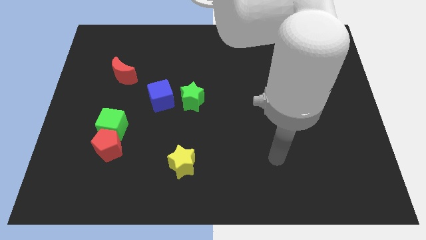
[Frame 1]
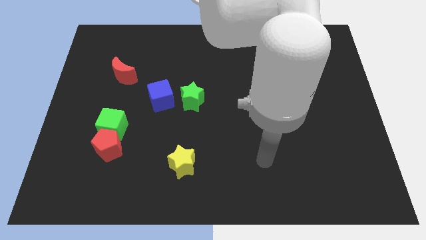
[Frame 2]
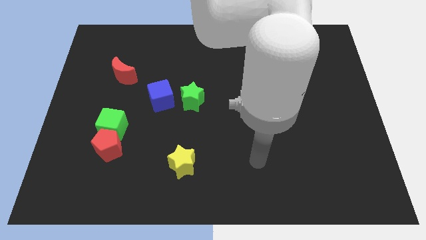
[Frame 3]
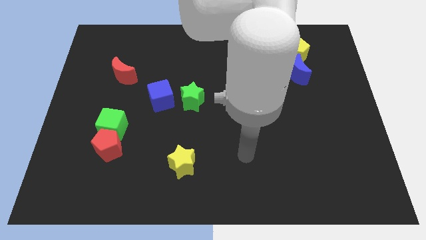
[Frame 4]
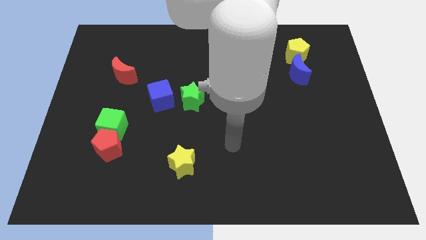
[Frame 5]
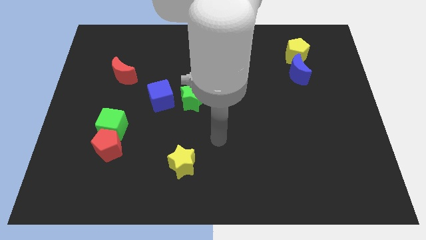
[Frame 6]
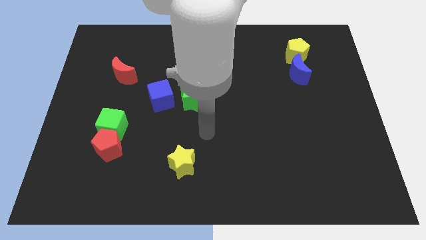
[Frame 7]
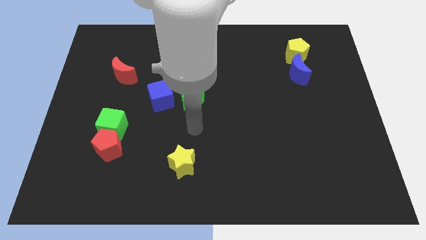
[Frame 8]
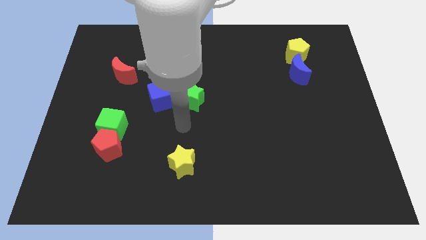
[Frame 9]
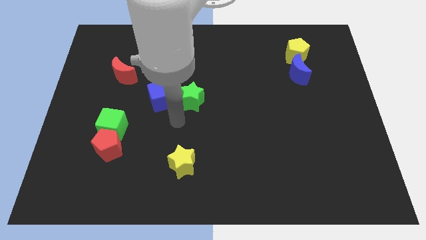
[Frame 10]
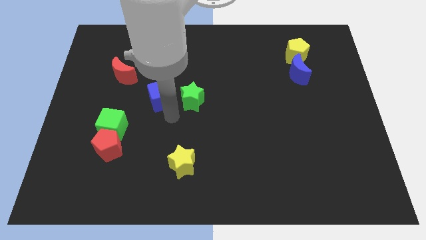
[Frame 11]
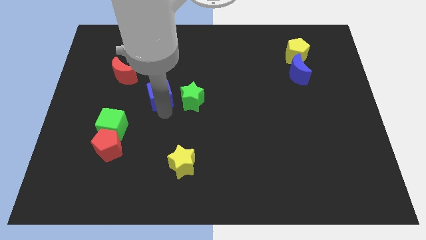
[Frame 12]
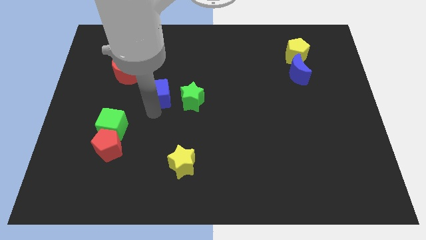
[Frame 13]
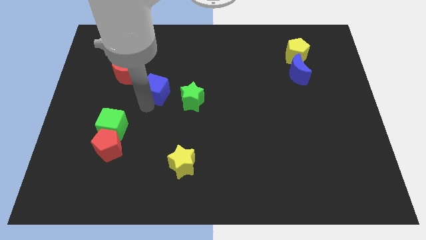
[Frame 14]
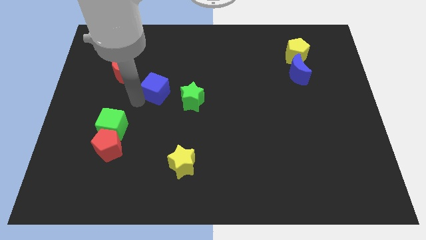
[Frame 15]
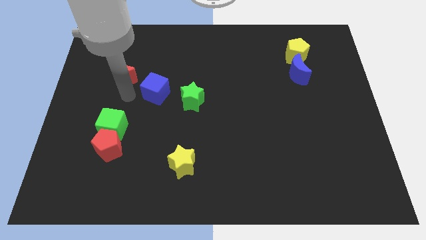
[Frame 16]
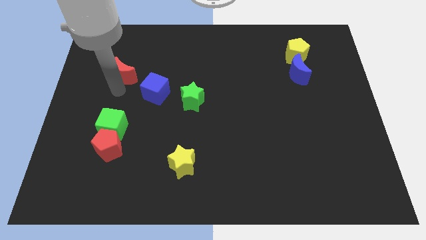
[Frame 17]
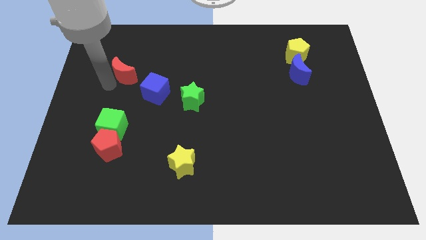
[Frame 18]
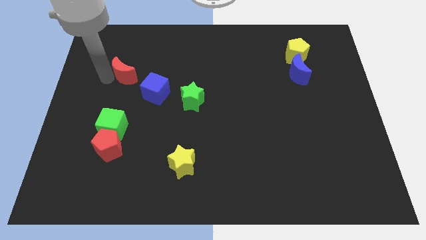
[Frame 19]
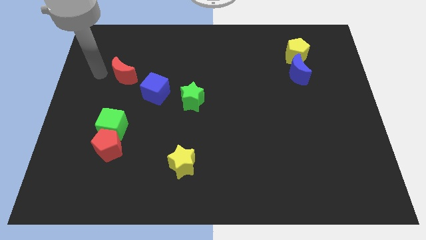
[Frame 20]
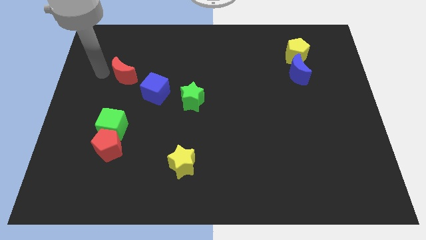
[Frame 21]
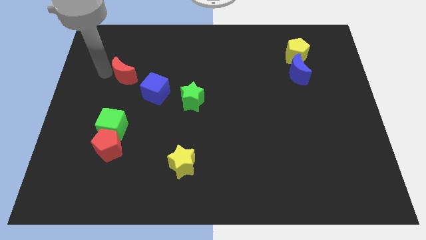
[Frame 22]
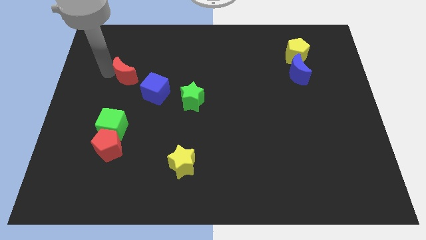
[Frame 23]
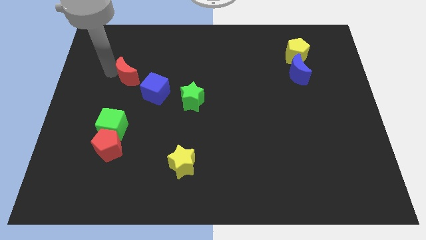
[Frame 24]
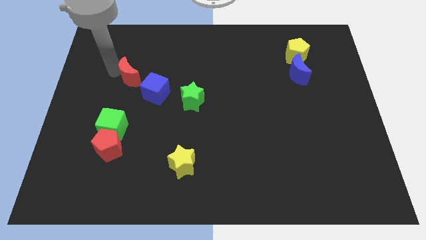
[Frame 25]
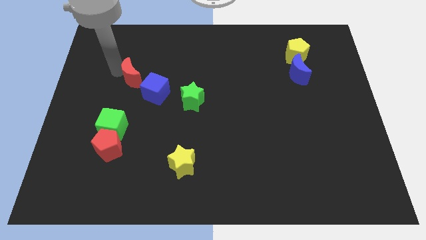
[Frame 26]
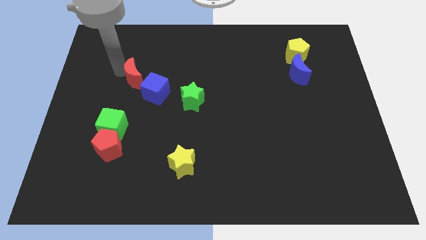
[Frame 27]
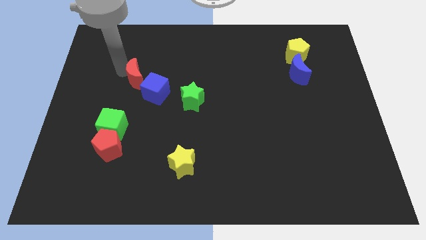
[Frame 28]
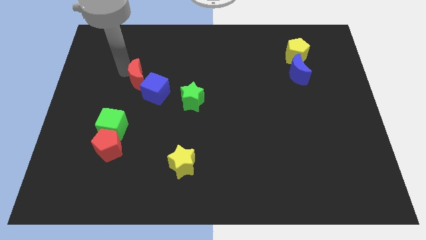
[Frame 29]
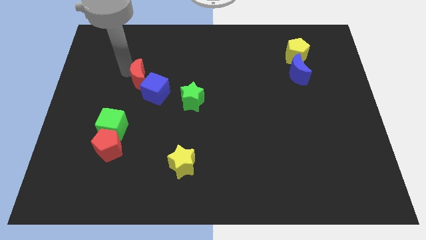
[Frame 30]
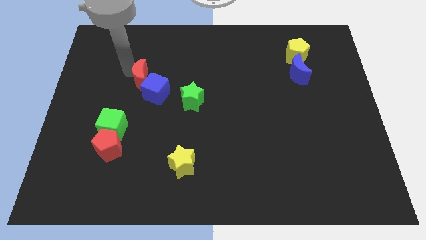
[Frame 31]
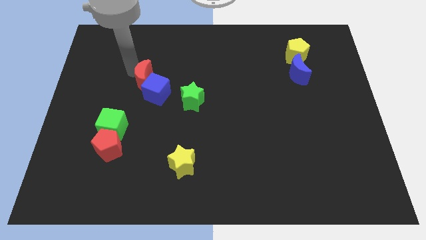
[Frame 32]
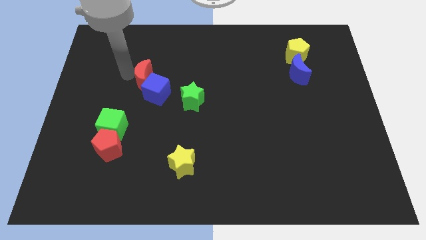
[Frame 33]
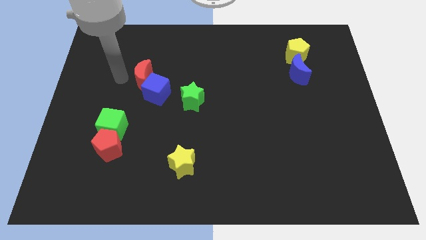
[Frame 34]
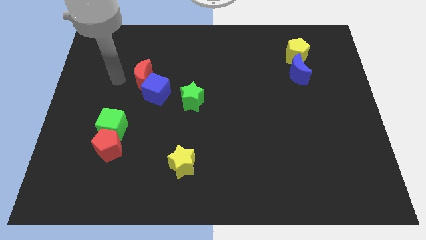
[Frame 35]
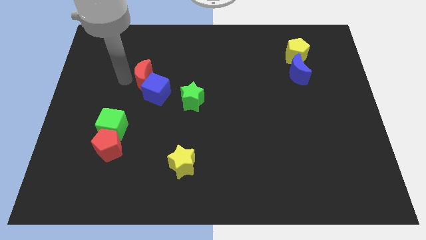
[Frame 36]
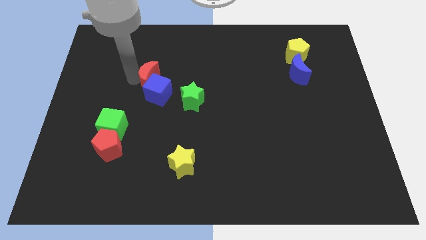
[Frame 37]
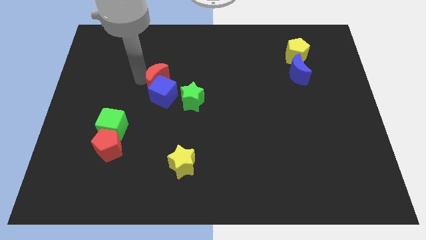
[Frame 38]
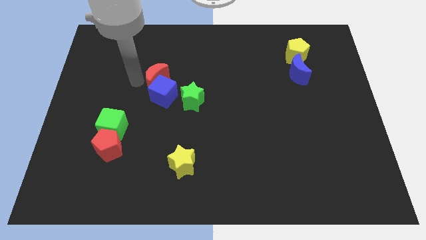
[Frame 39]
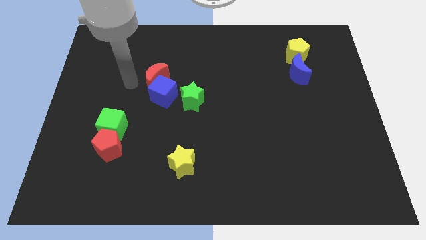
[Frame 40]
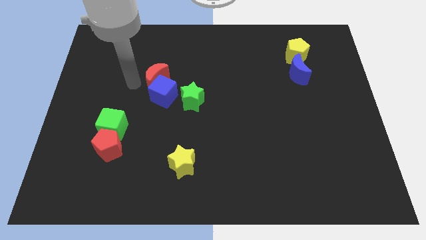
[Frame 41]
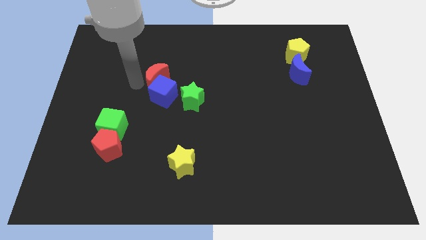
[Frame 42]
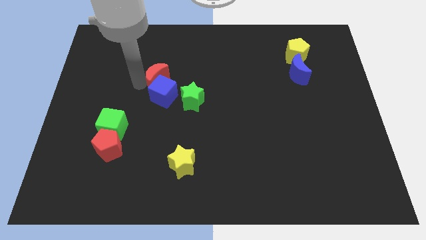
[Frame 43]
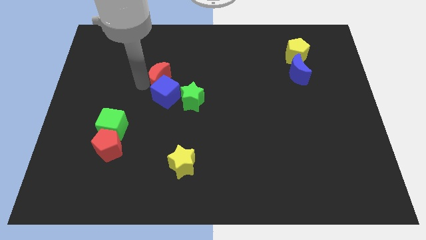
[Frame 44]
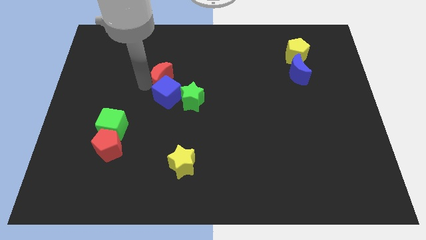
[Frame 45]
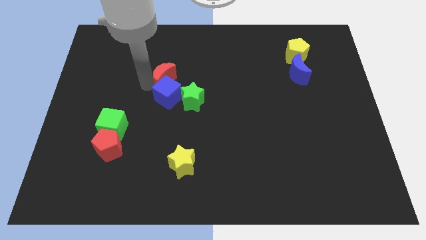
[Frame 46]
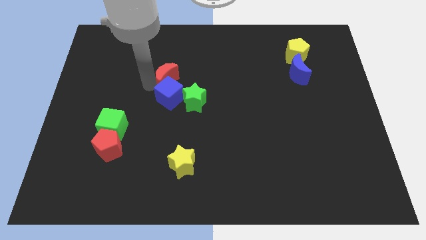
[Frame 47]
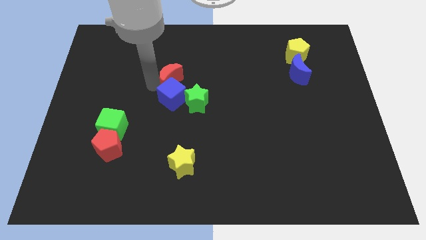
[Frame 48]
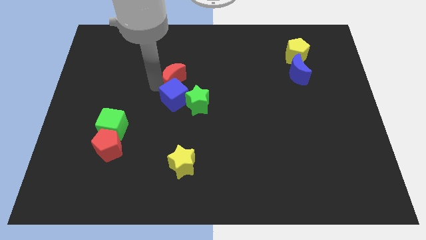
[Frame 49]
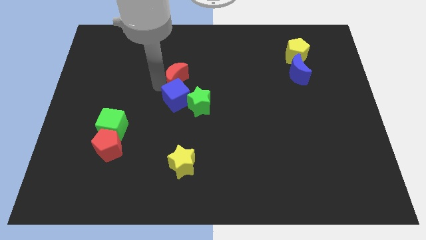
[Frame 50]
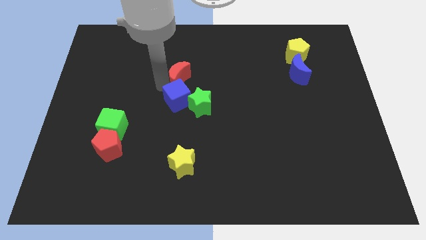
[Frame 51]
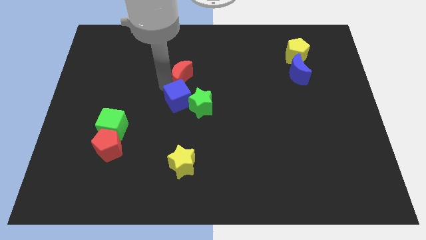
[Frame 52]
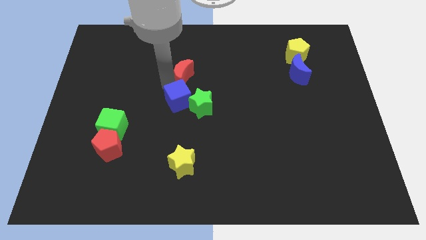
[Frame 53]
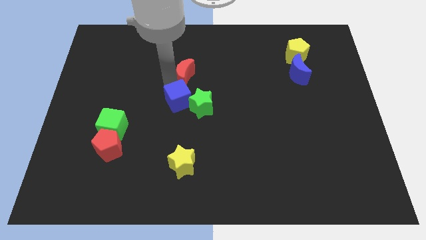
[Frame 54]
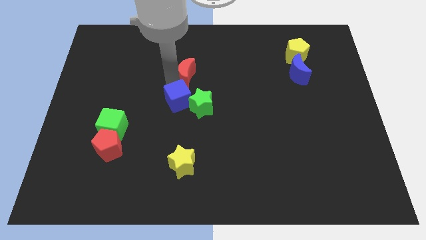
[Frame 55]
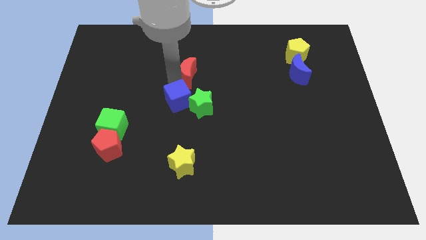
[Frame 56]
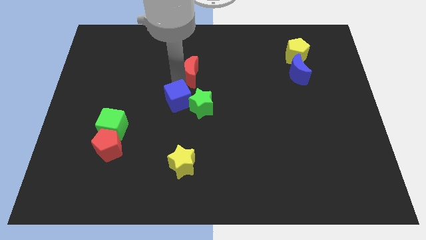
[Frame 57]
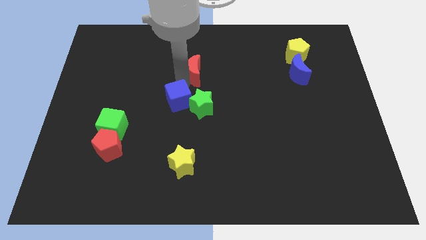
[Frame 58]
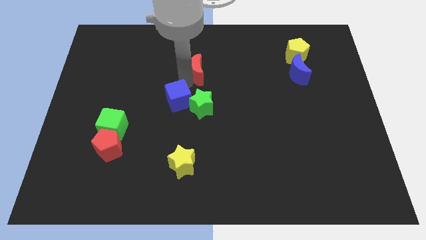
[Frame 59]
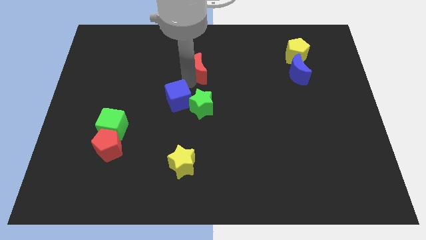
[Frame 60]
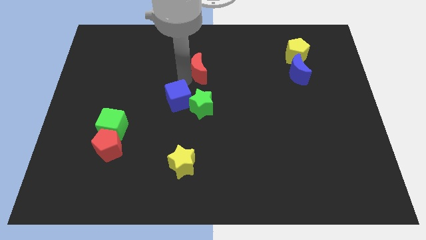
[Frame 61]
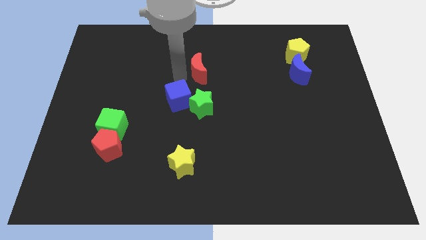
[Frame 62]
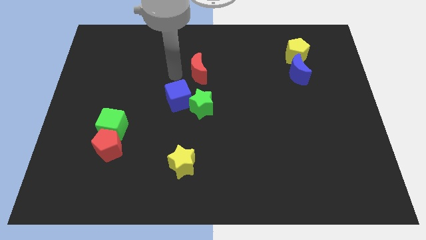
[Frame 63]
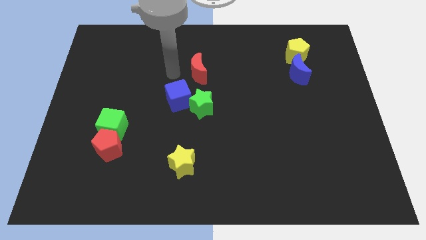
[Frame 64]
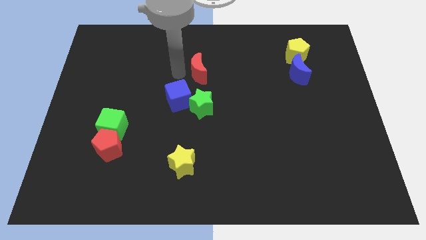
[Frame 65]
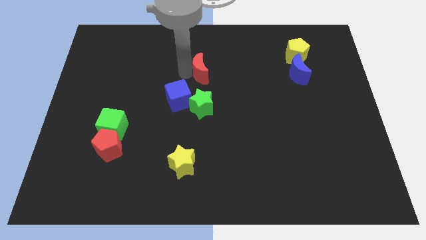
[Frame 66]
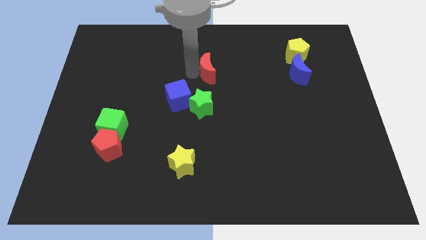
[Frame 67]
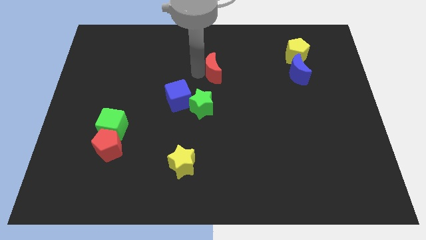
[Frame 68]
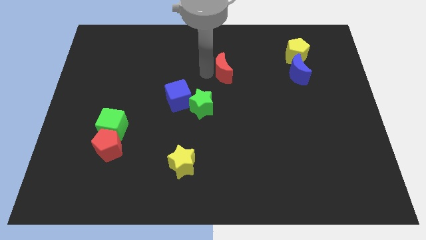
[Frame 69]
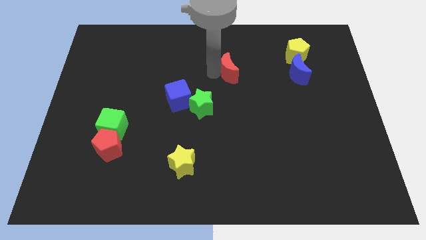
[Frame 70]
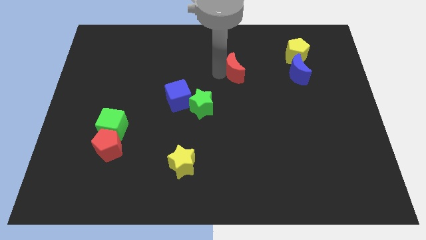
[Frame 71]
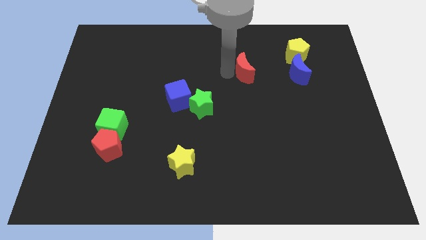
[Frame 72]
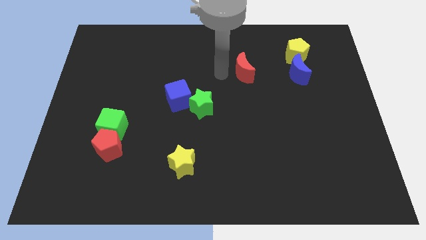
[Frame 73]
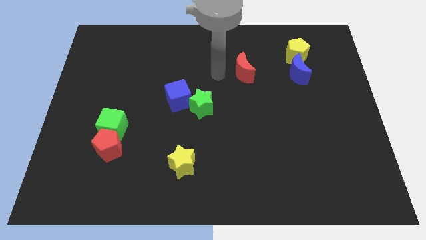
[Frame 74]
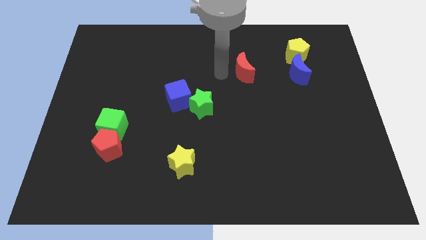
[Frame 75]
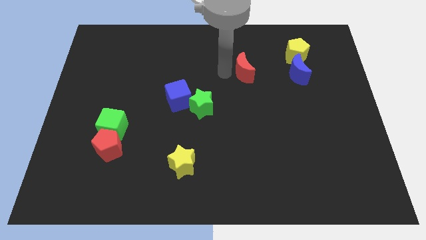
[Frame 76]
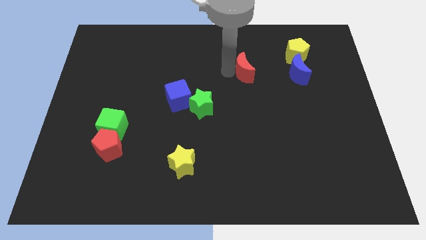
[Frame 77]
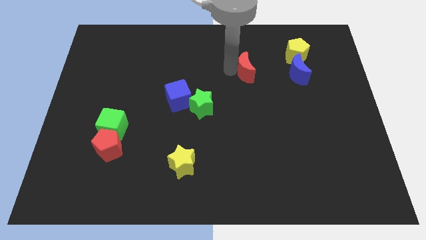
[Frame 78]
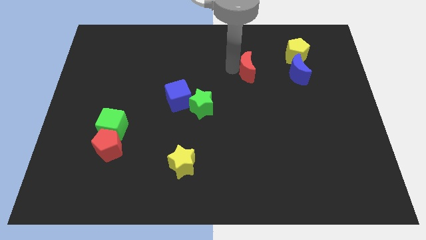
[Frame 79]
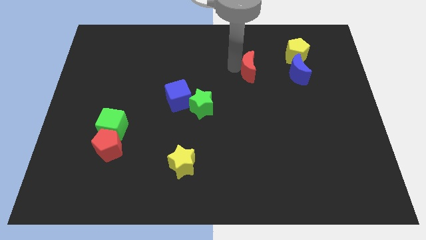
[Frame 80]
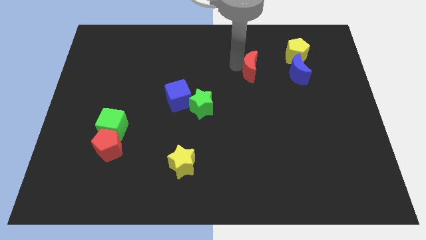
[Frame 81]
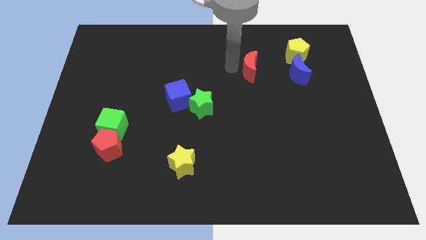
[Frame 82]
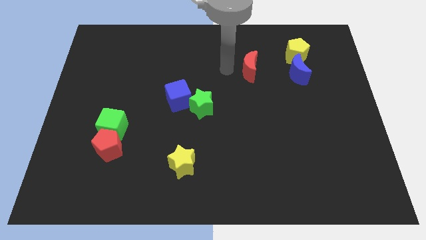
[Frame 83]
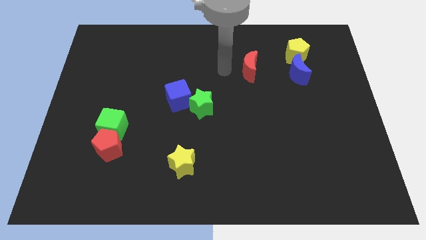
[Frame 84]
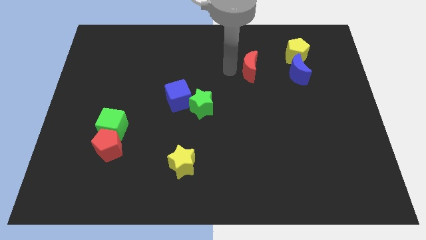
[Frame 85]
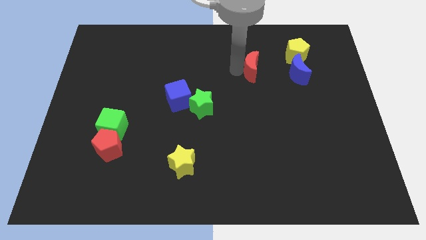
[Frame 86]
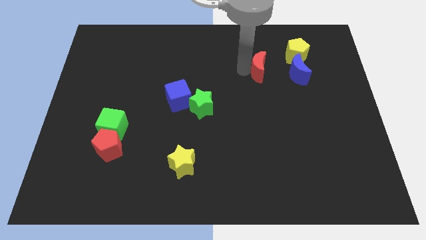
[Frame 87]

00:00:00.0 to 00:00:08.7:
slide the red moon diagonally down and to the left of the yellow pentagon
